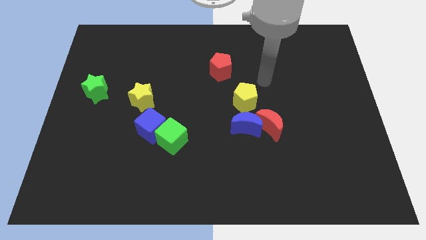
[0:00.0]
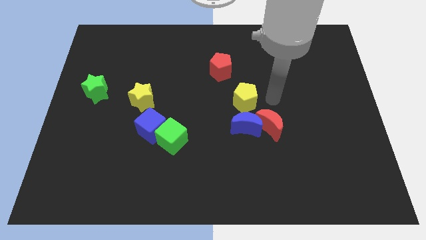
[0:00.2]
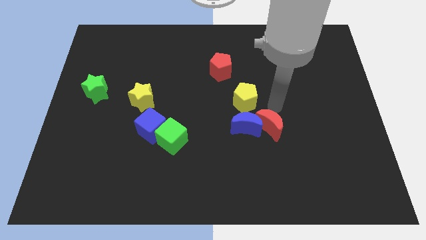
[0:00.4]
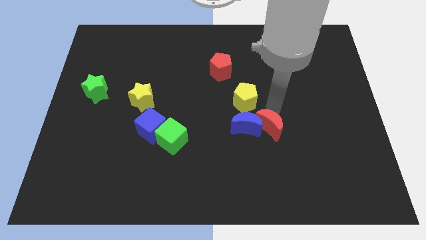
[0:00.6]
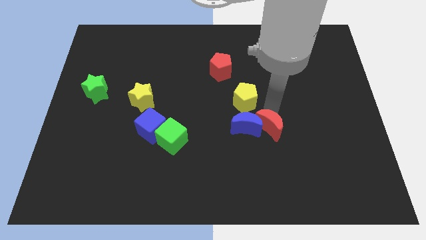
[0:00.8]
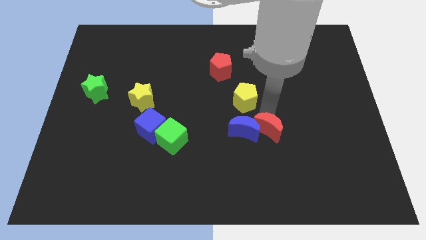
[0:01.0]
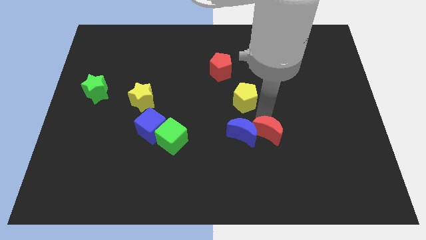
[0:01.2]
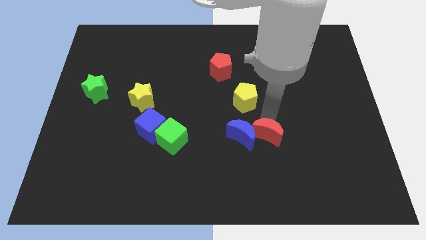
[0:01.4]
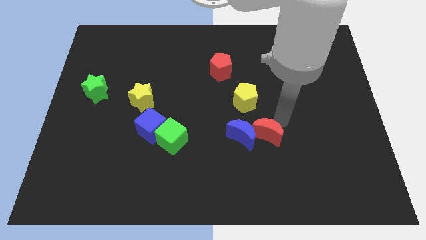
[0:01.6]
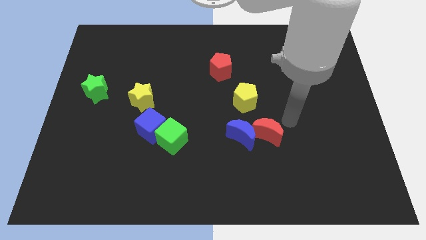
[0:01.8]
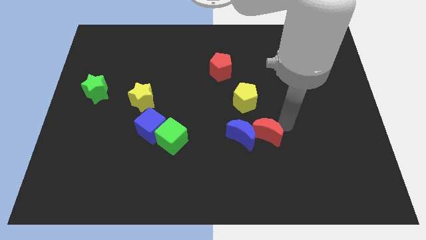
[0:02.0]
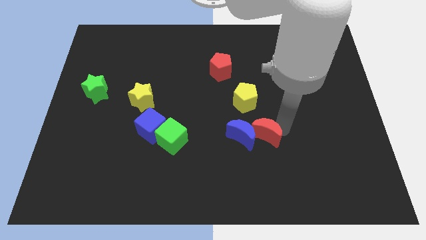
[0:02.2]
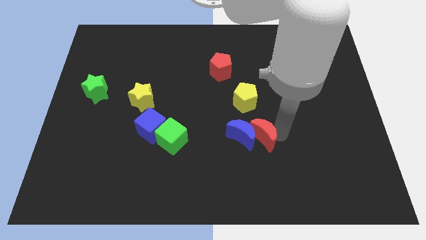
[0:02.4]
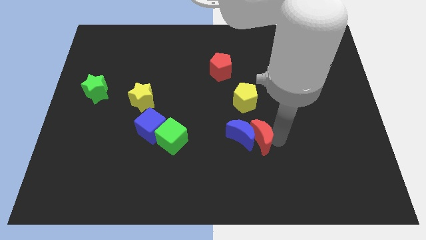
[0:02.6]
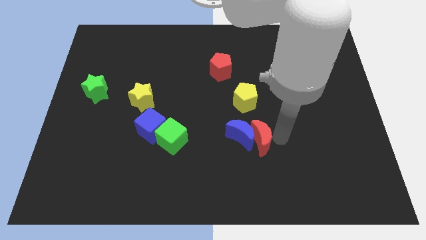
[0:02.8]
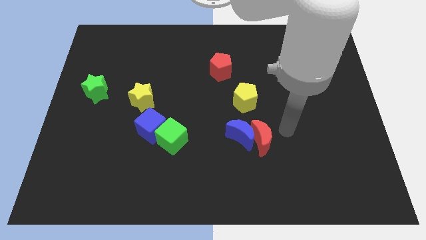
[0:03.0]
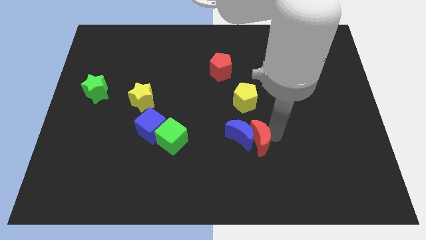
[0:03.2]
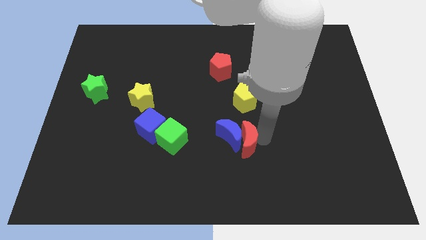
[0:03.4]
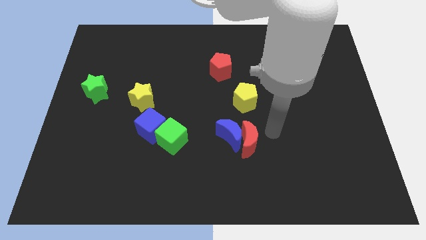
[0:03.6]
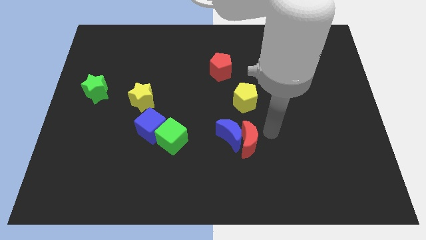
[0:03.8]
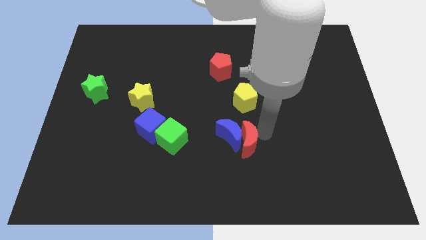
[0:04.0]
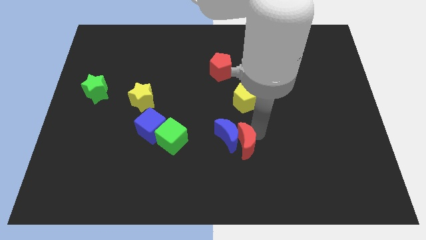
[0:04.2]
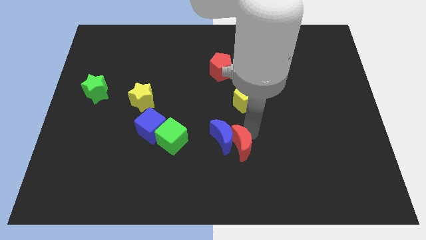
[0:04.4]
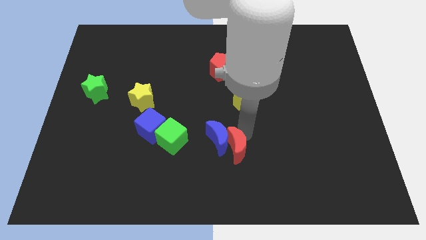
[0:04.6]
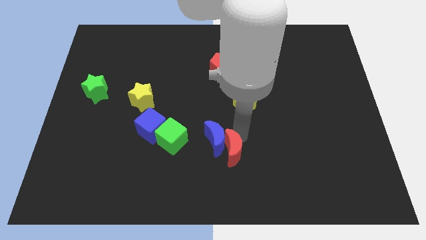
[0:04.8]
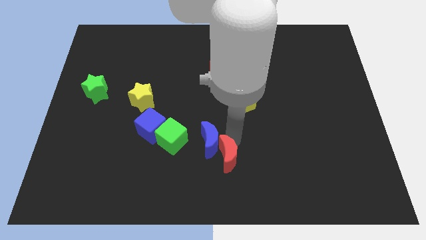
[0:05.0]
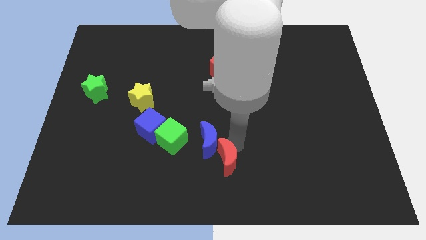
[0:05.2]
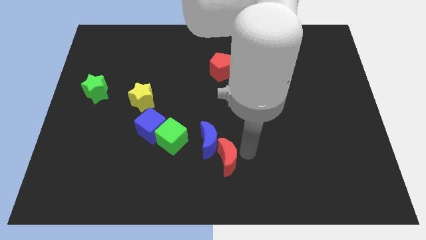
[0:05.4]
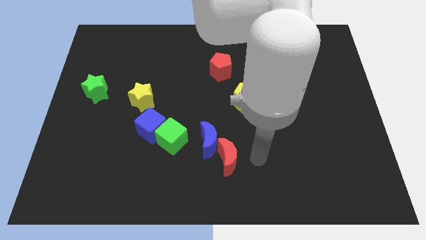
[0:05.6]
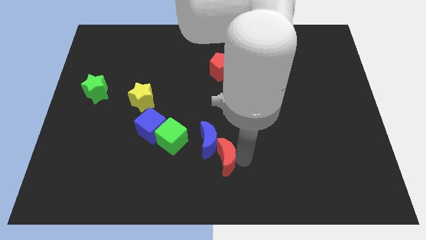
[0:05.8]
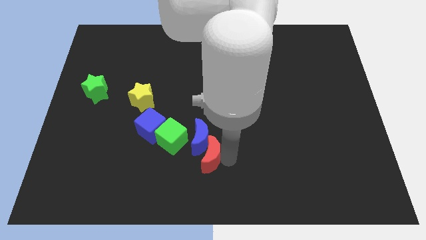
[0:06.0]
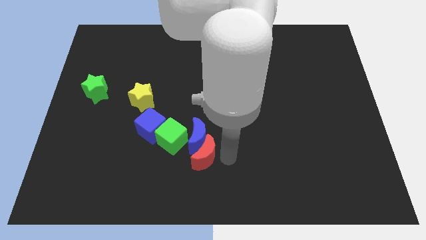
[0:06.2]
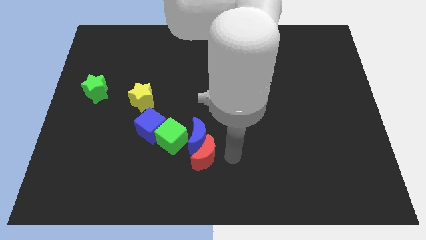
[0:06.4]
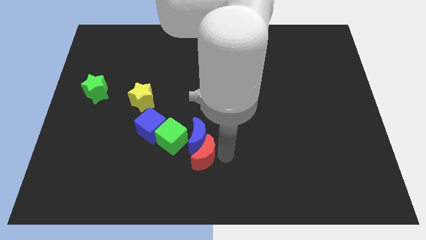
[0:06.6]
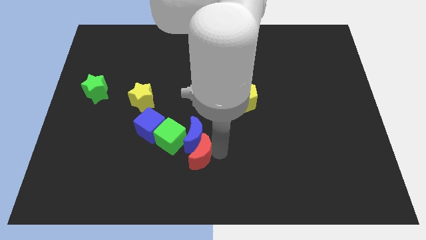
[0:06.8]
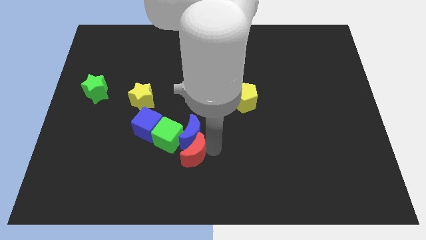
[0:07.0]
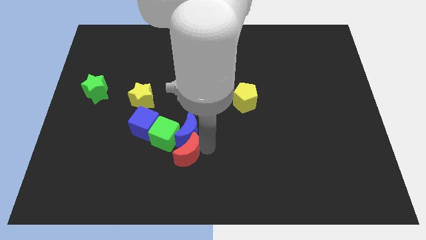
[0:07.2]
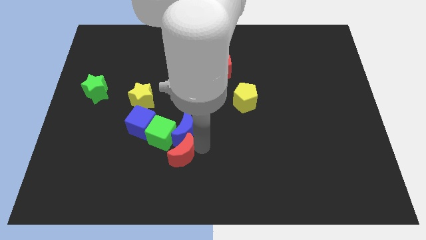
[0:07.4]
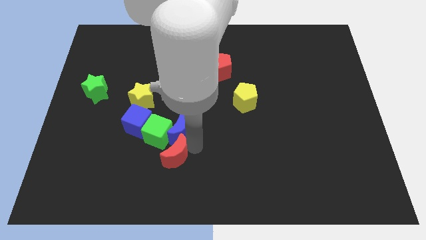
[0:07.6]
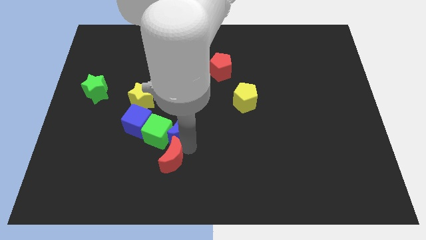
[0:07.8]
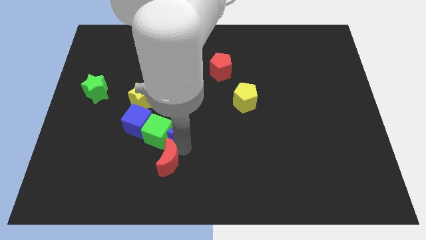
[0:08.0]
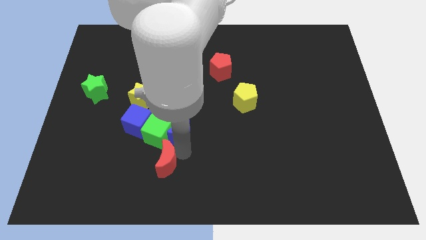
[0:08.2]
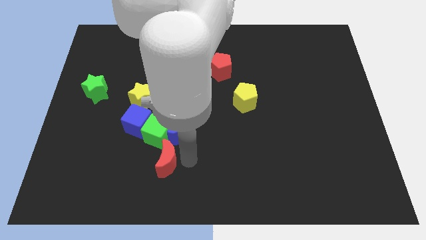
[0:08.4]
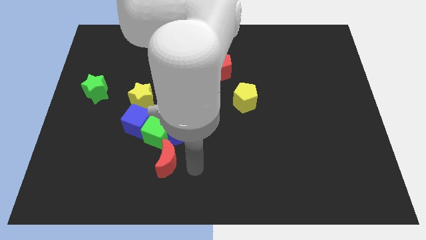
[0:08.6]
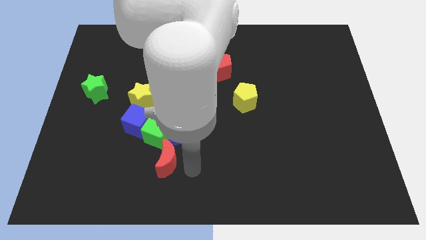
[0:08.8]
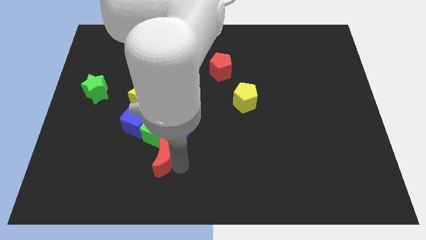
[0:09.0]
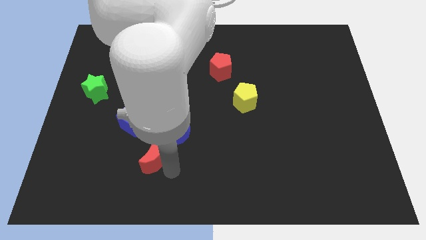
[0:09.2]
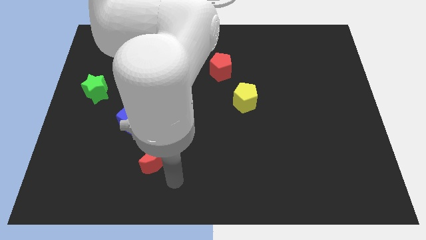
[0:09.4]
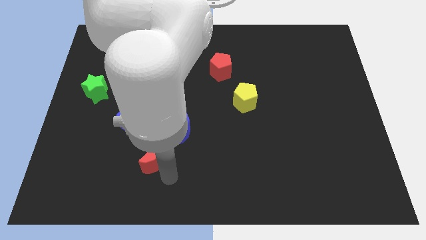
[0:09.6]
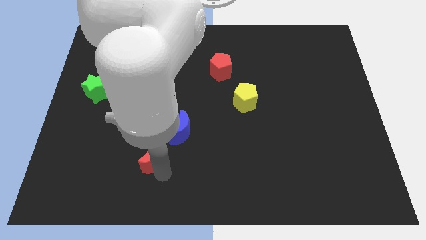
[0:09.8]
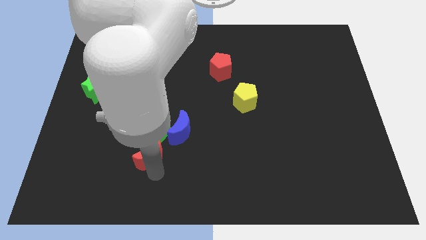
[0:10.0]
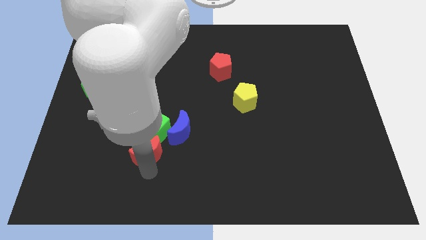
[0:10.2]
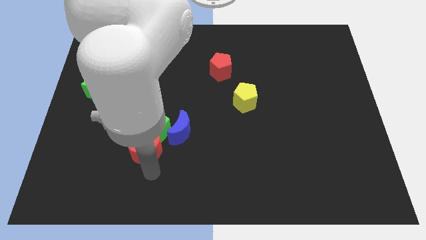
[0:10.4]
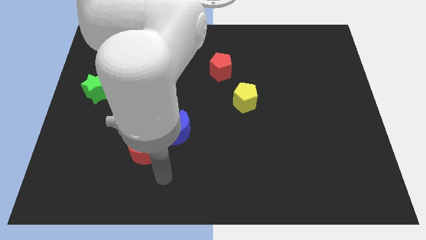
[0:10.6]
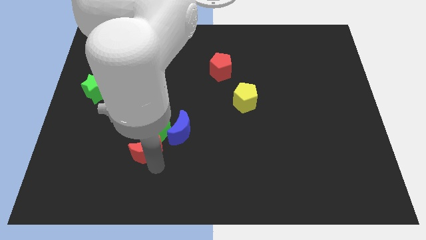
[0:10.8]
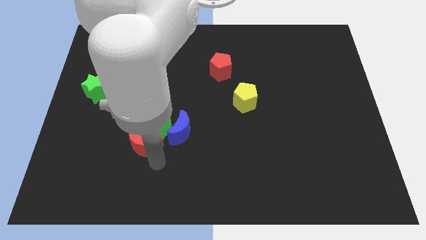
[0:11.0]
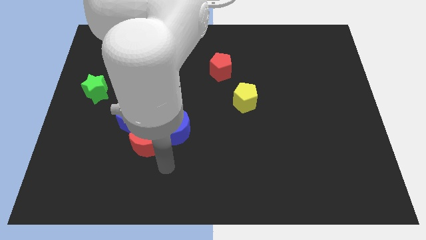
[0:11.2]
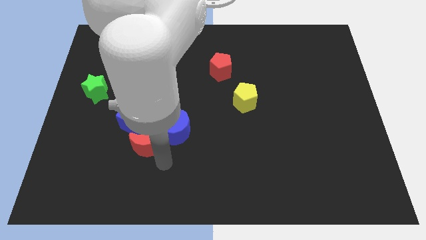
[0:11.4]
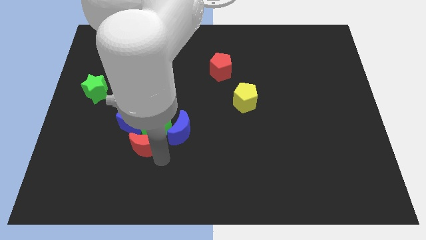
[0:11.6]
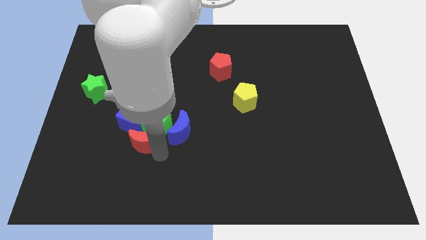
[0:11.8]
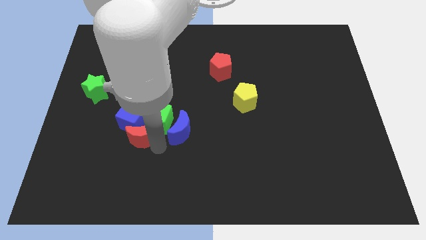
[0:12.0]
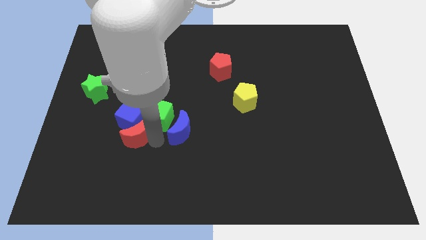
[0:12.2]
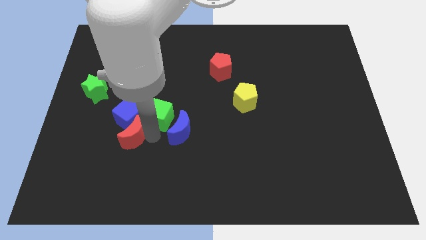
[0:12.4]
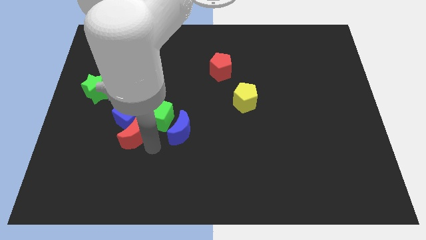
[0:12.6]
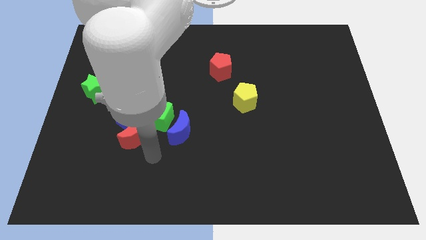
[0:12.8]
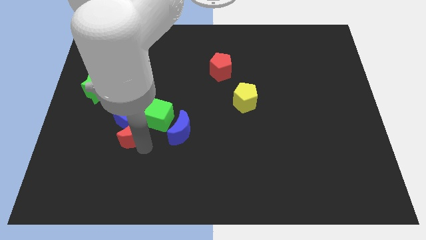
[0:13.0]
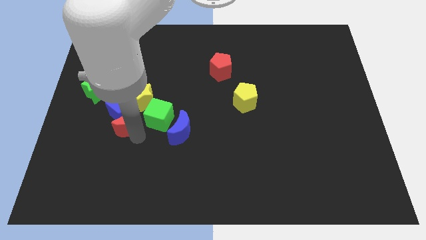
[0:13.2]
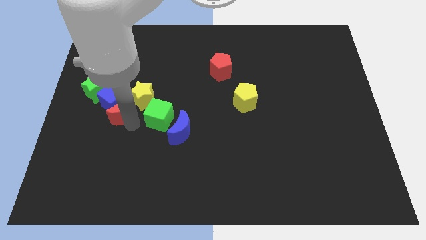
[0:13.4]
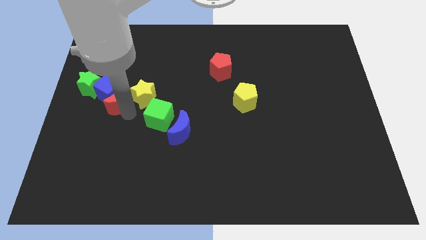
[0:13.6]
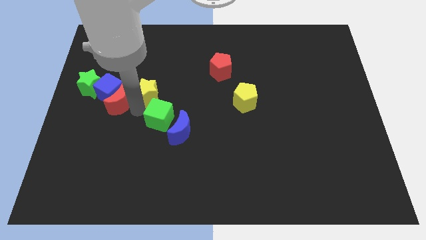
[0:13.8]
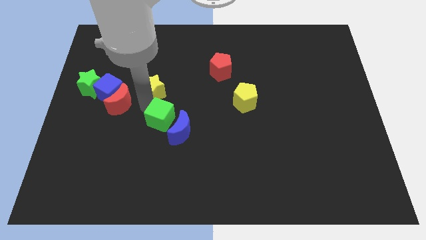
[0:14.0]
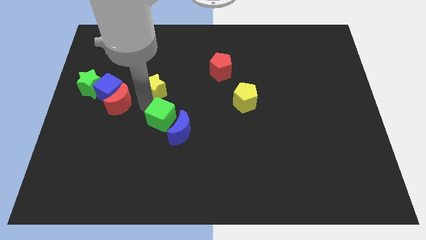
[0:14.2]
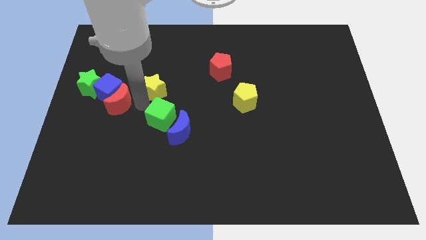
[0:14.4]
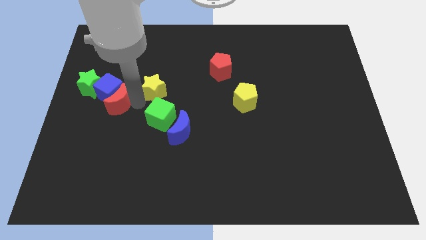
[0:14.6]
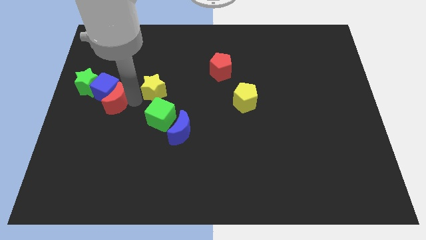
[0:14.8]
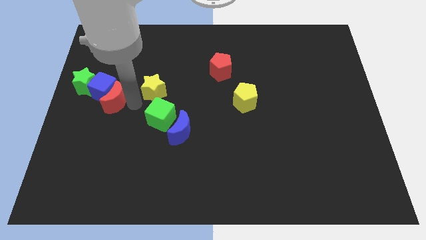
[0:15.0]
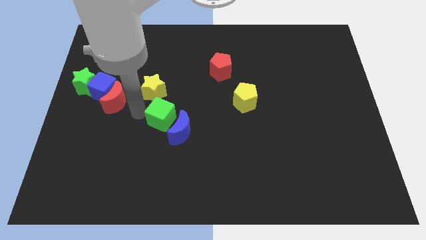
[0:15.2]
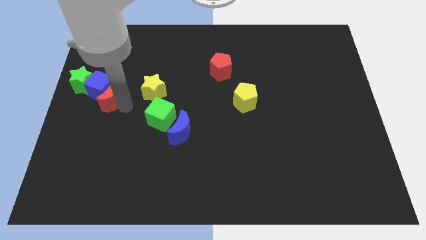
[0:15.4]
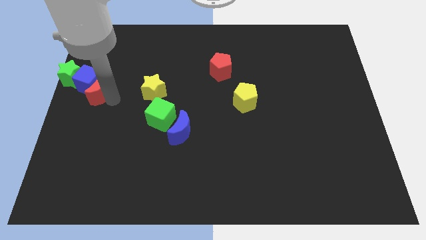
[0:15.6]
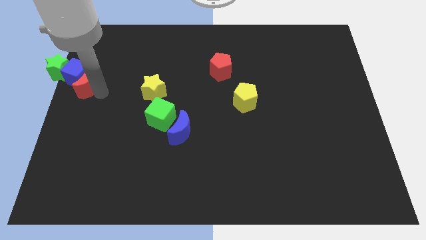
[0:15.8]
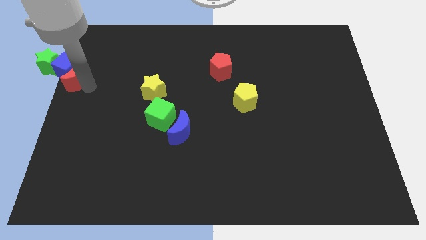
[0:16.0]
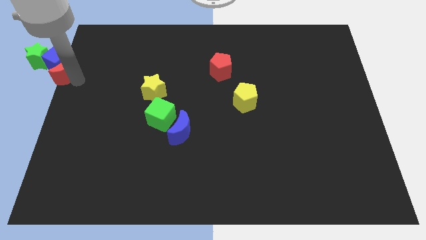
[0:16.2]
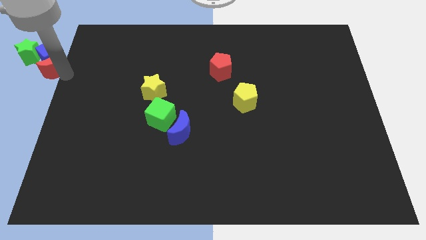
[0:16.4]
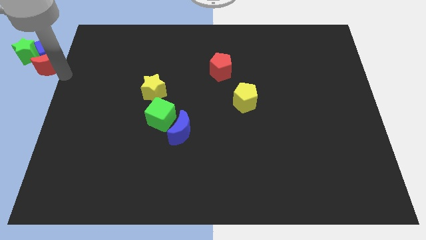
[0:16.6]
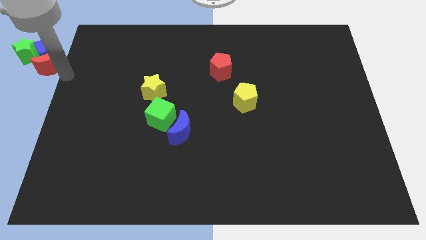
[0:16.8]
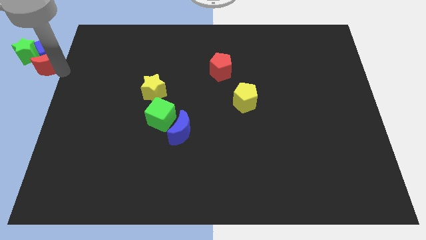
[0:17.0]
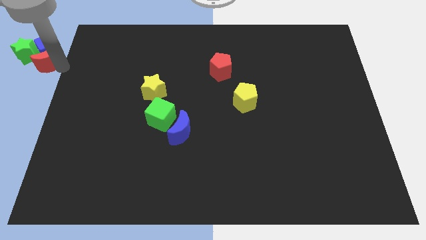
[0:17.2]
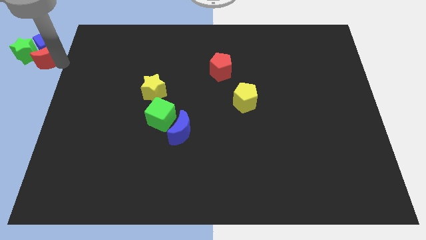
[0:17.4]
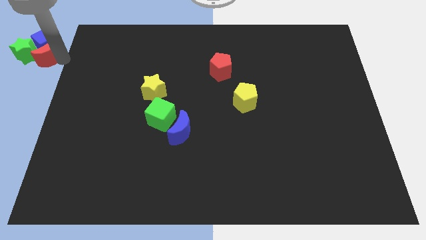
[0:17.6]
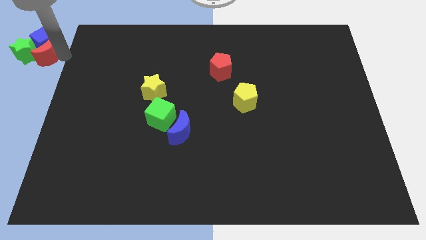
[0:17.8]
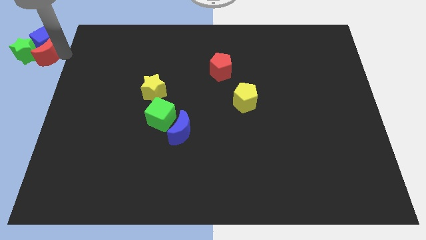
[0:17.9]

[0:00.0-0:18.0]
slide the red moon to the green star
